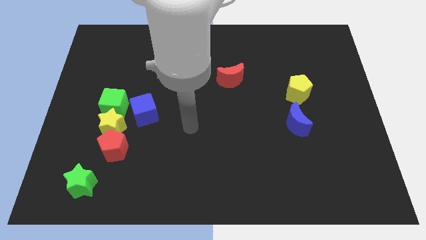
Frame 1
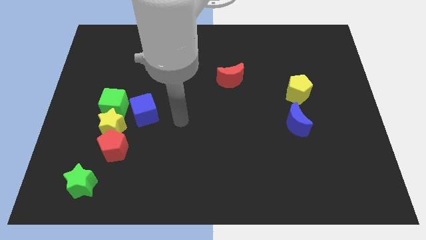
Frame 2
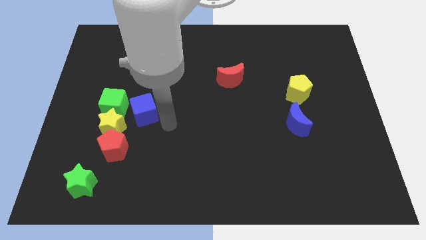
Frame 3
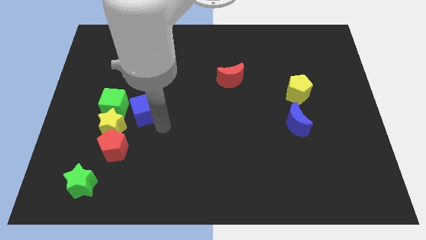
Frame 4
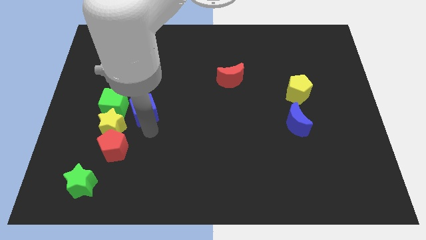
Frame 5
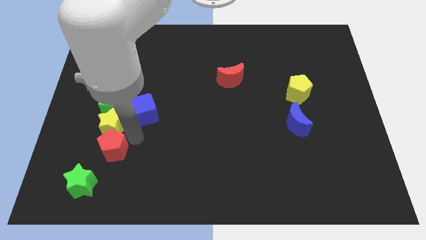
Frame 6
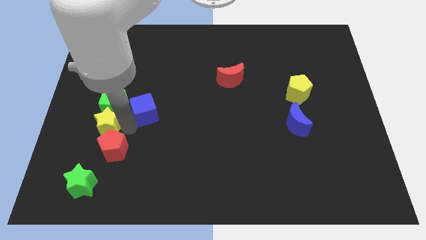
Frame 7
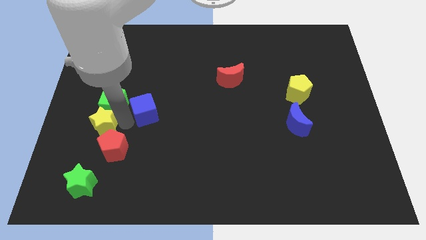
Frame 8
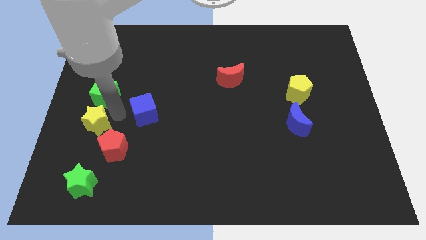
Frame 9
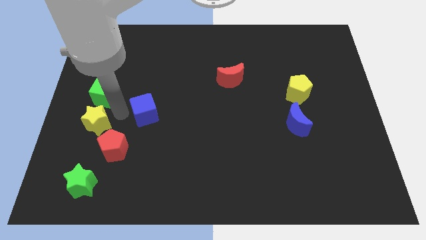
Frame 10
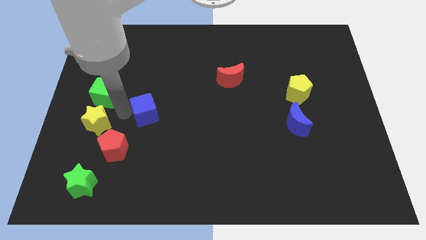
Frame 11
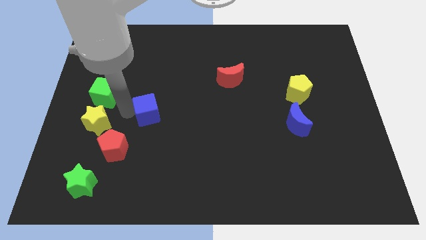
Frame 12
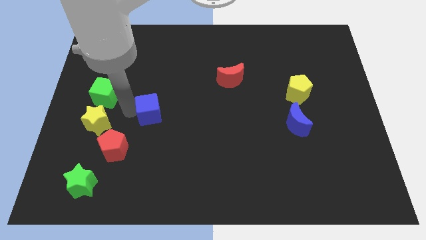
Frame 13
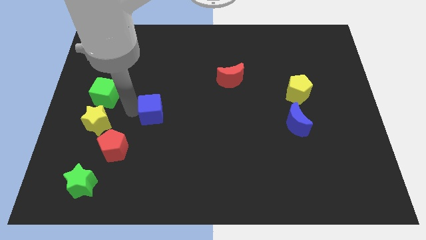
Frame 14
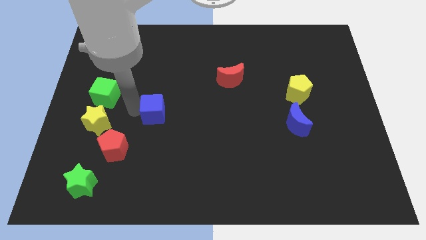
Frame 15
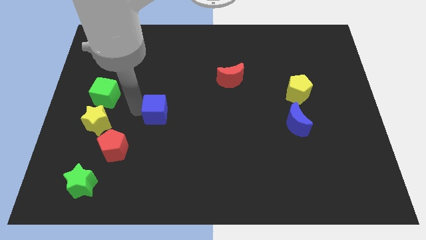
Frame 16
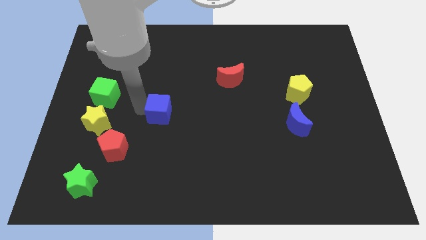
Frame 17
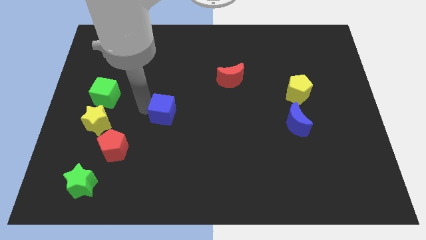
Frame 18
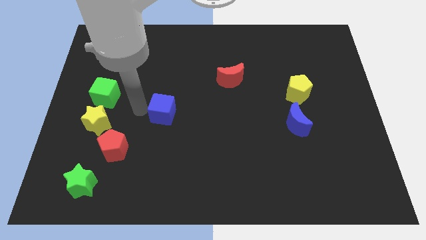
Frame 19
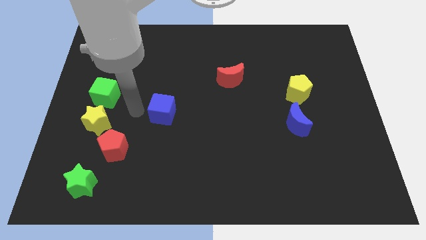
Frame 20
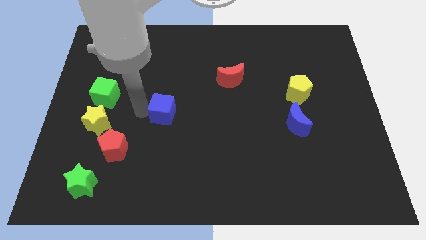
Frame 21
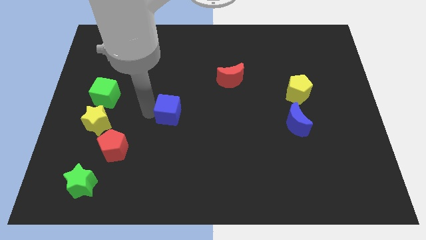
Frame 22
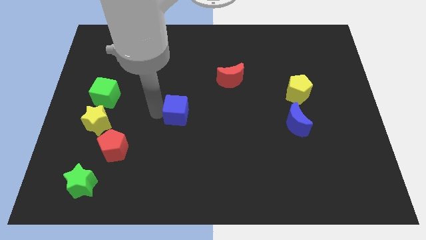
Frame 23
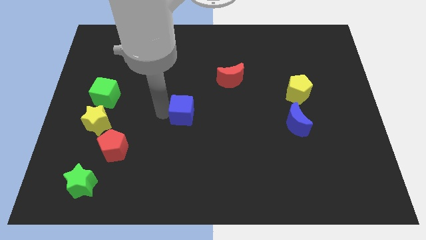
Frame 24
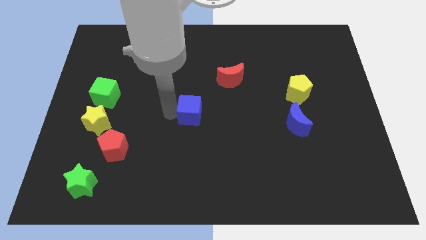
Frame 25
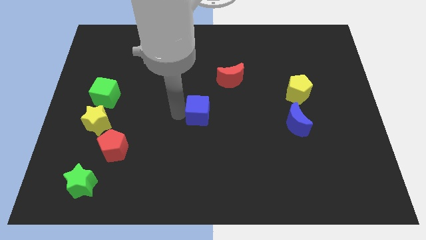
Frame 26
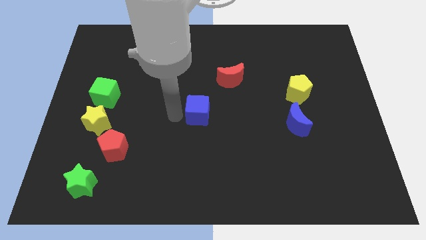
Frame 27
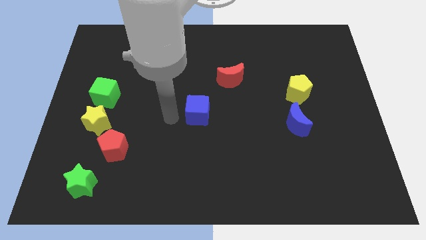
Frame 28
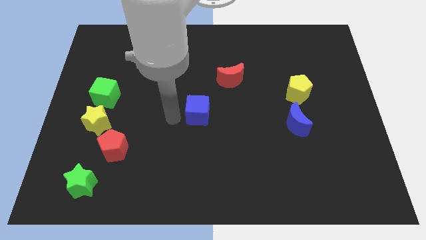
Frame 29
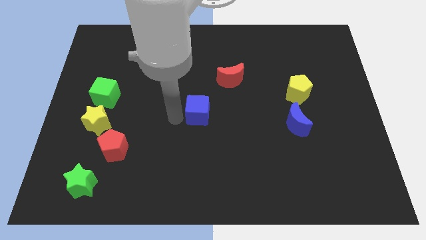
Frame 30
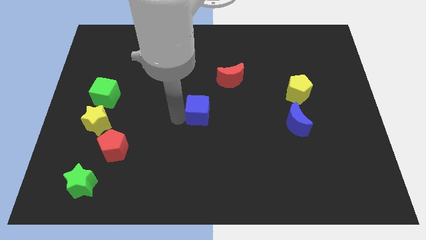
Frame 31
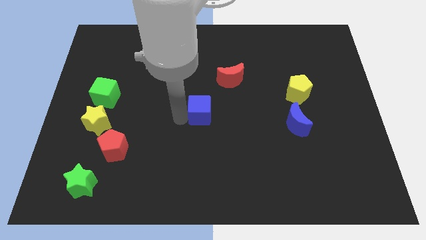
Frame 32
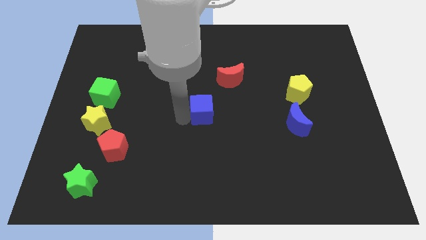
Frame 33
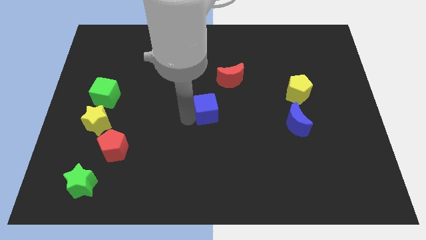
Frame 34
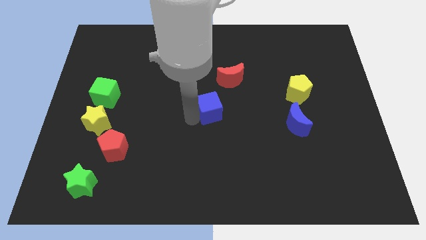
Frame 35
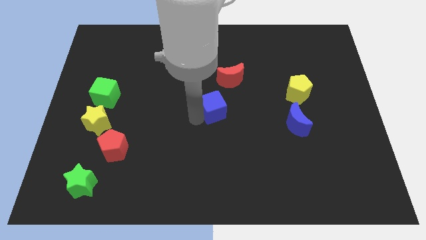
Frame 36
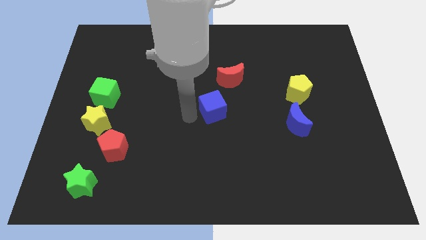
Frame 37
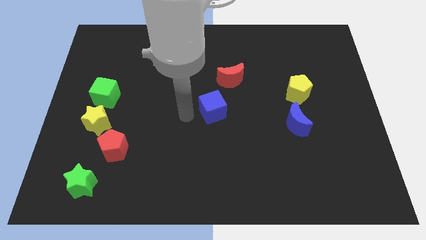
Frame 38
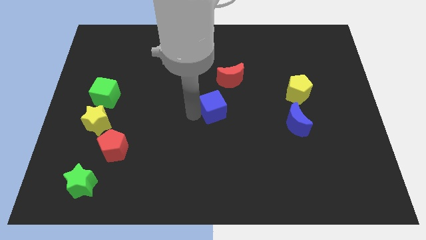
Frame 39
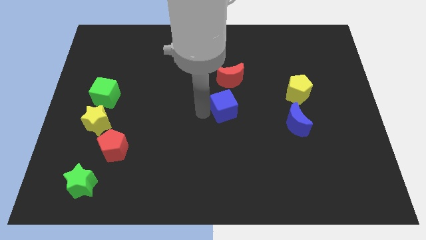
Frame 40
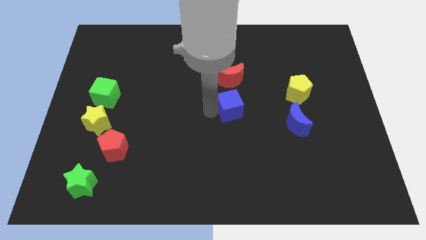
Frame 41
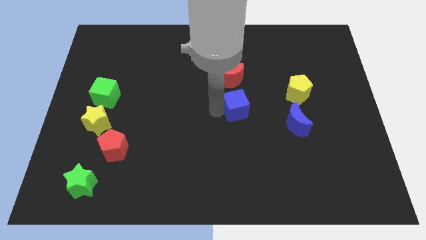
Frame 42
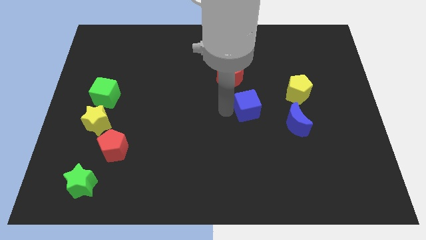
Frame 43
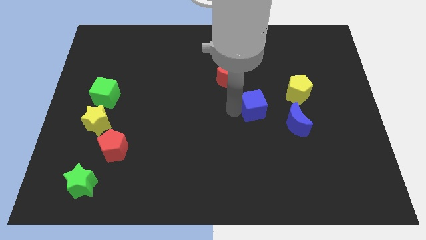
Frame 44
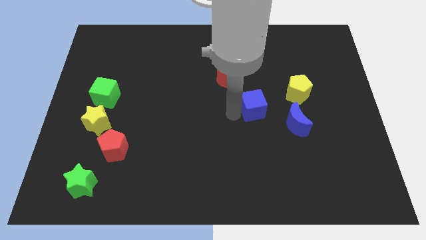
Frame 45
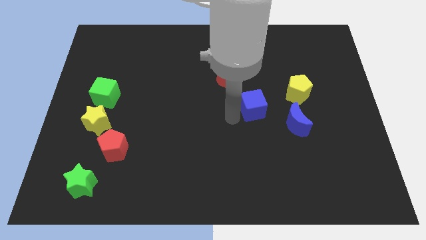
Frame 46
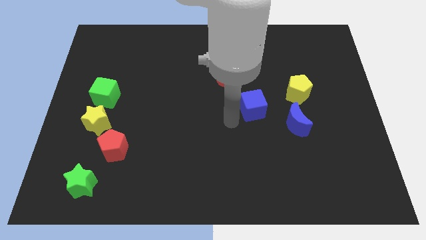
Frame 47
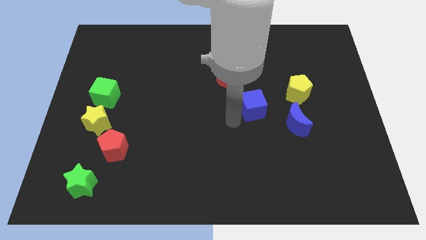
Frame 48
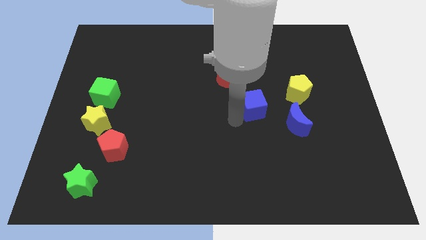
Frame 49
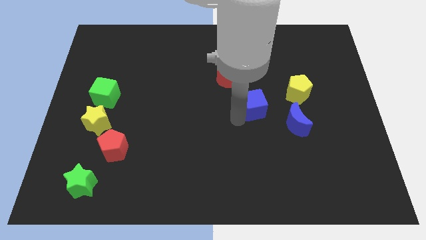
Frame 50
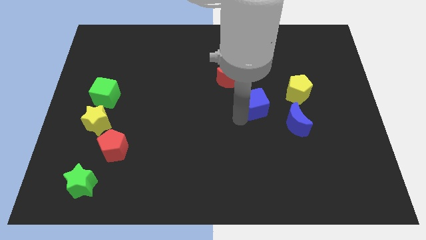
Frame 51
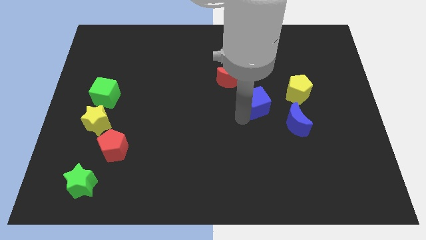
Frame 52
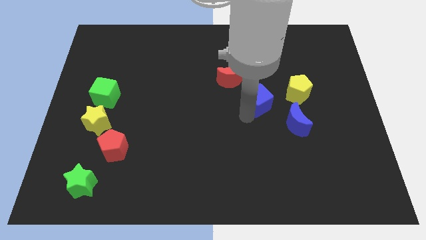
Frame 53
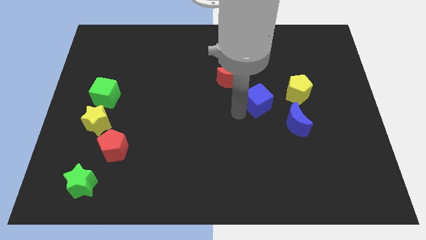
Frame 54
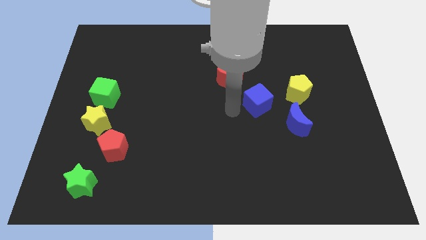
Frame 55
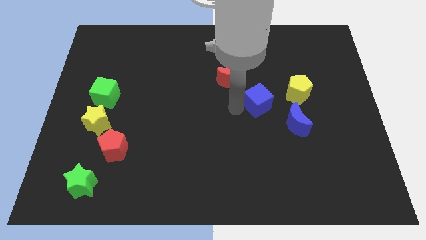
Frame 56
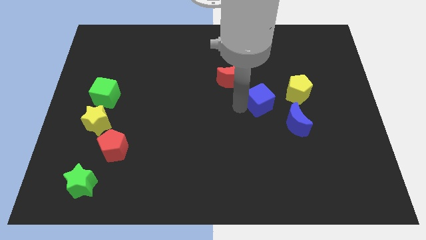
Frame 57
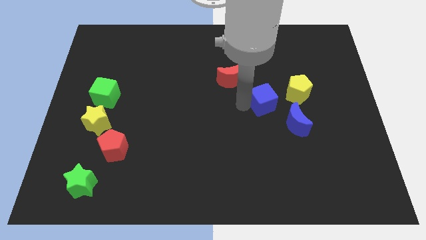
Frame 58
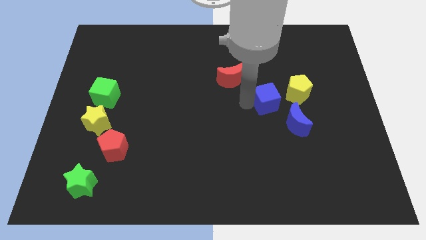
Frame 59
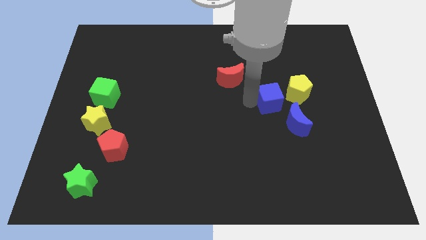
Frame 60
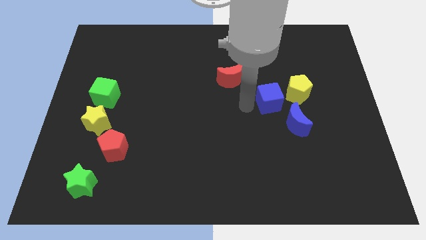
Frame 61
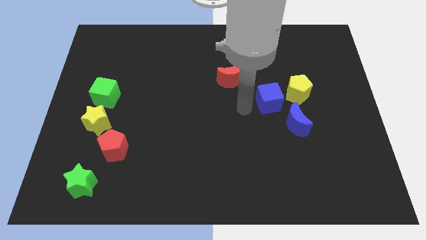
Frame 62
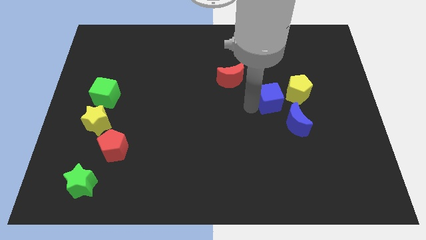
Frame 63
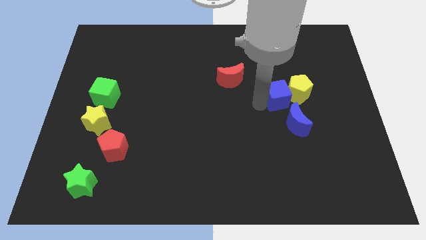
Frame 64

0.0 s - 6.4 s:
put the blue cube towards the yellow pentagon

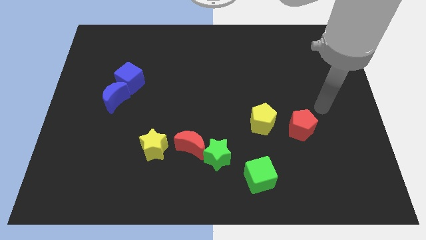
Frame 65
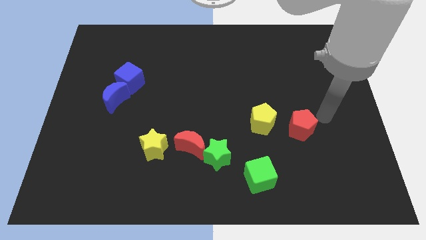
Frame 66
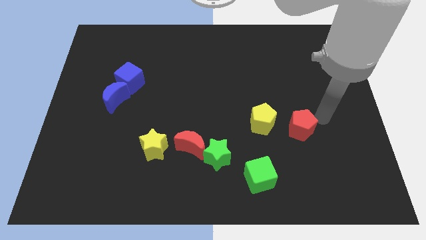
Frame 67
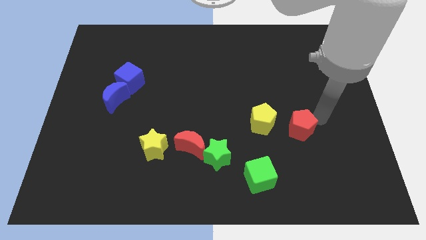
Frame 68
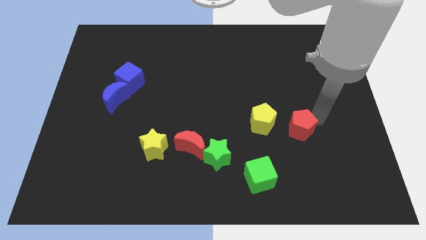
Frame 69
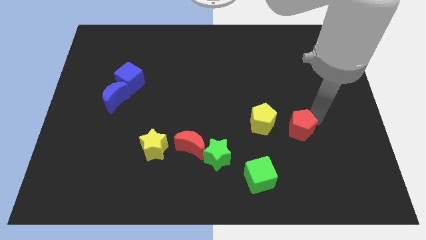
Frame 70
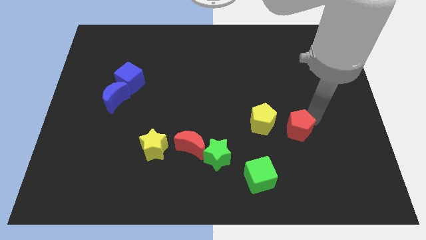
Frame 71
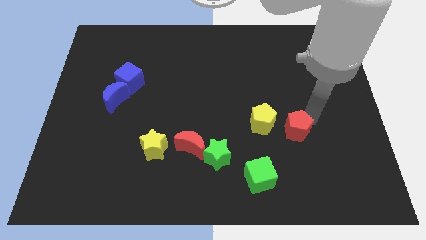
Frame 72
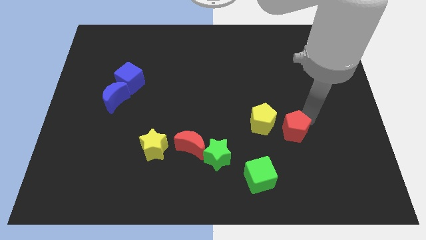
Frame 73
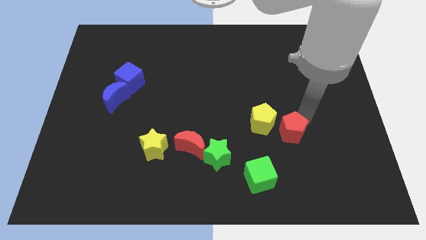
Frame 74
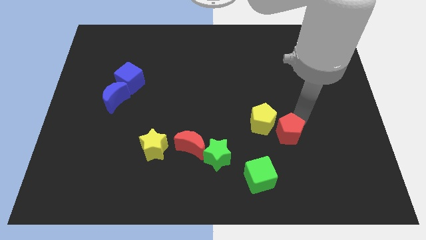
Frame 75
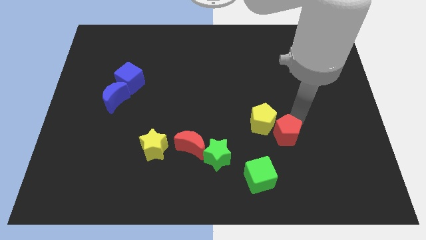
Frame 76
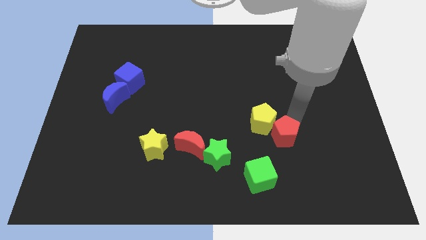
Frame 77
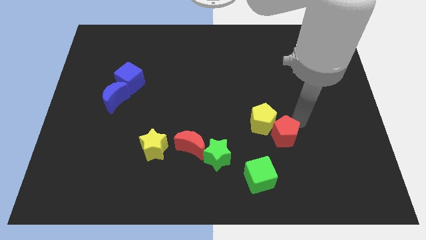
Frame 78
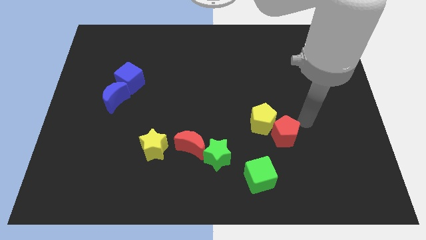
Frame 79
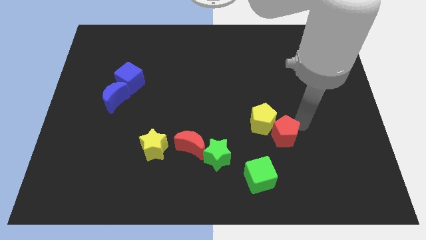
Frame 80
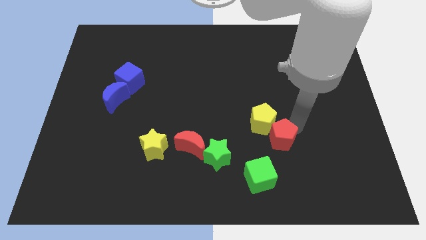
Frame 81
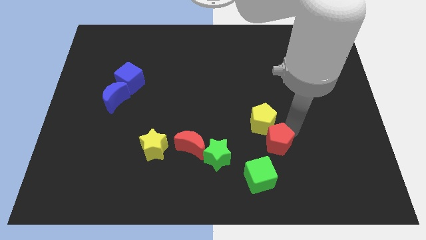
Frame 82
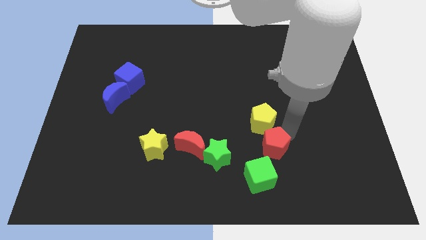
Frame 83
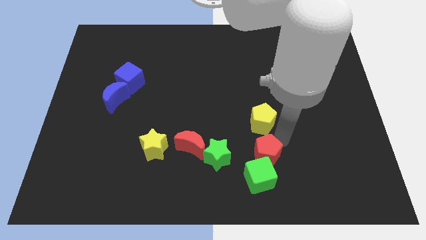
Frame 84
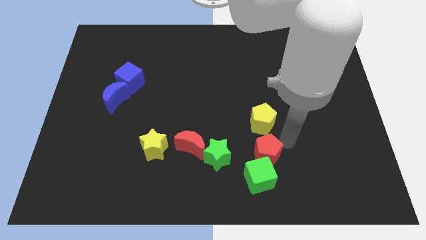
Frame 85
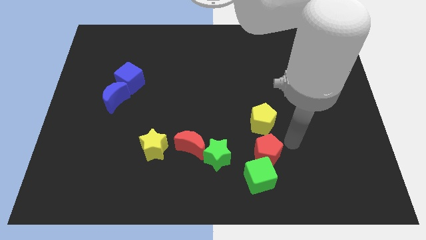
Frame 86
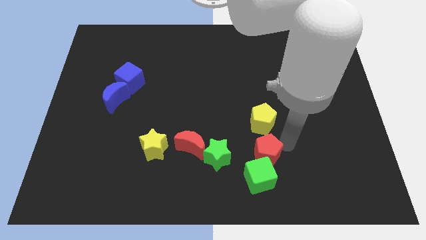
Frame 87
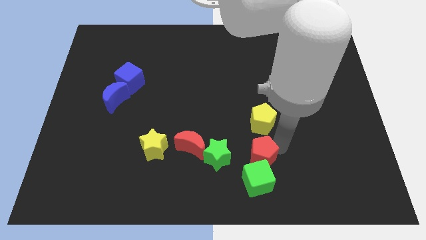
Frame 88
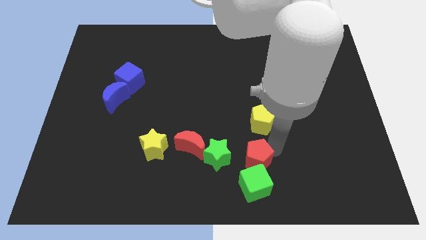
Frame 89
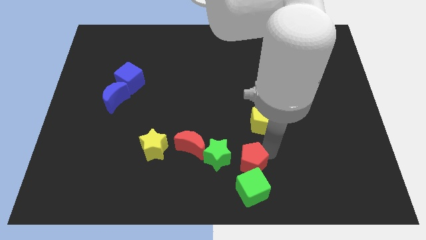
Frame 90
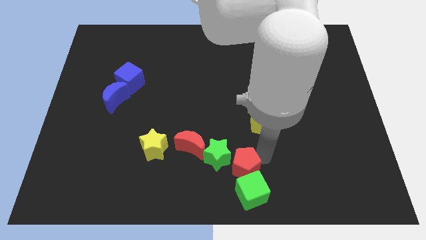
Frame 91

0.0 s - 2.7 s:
slide the red pentagon next to the green star
